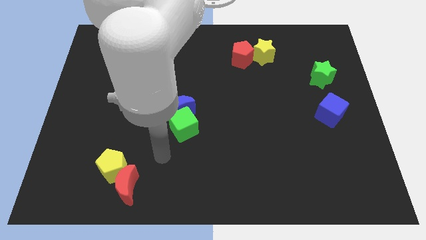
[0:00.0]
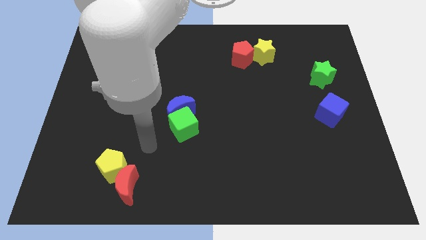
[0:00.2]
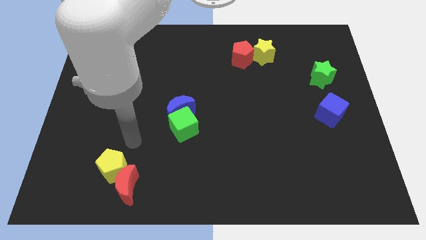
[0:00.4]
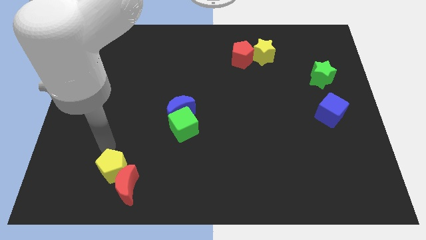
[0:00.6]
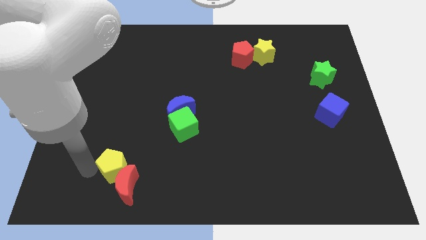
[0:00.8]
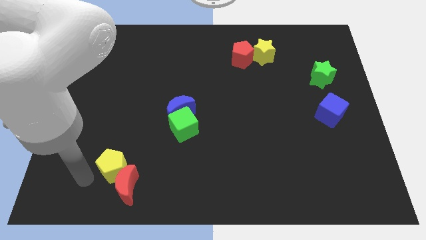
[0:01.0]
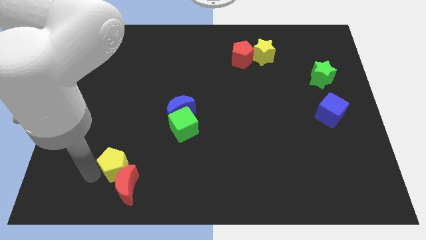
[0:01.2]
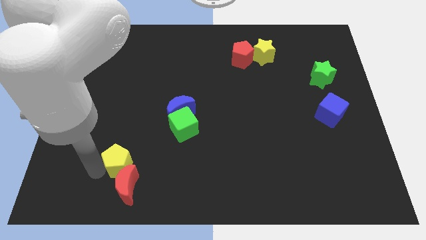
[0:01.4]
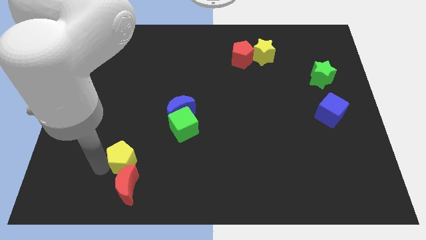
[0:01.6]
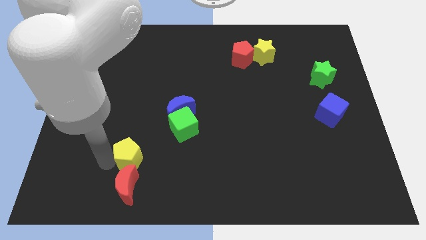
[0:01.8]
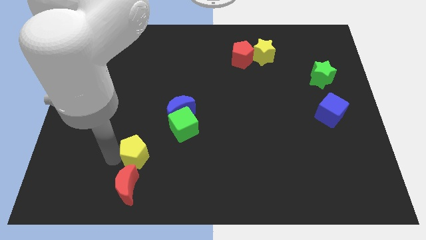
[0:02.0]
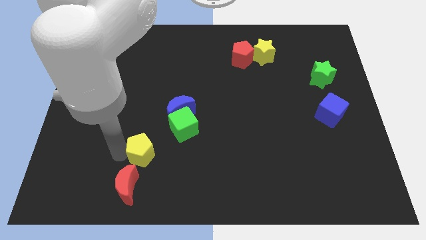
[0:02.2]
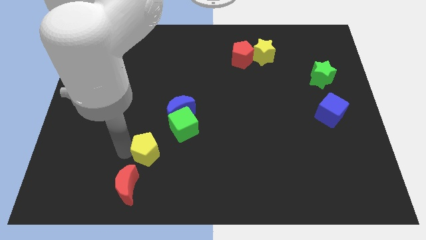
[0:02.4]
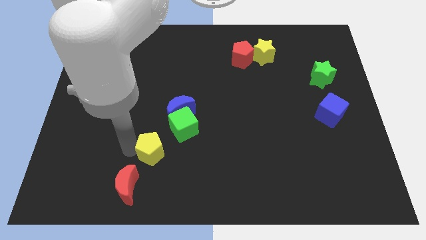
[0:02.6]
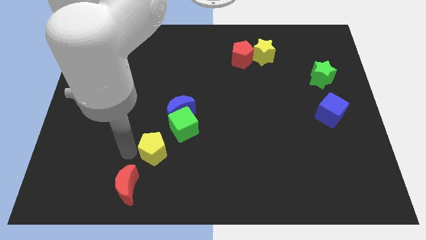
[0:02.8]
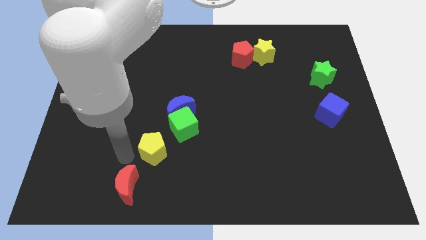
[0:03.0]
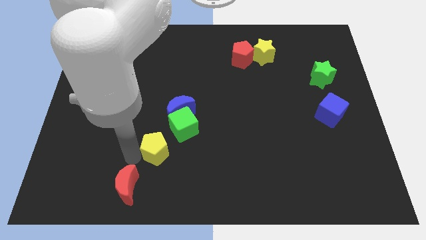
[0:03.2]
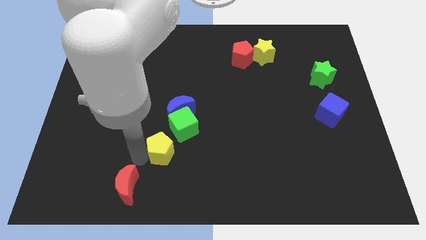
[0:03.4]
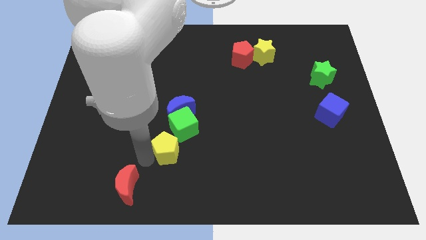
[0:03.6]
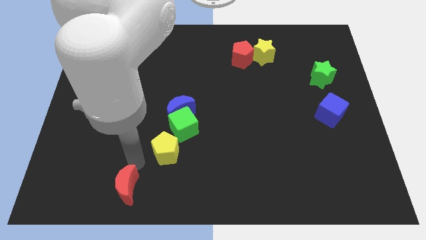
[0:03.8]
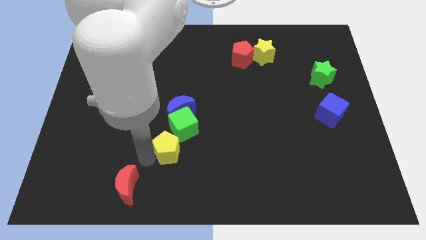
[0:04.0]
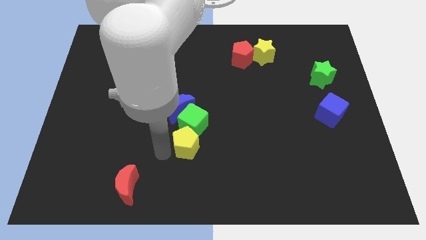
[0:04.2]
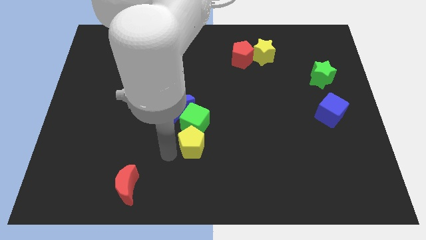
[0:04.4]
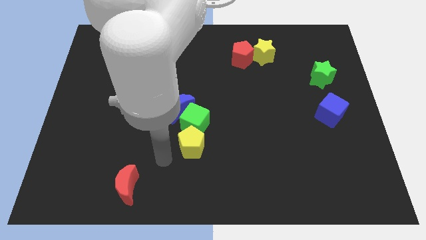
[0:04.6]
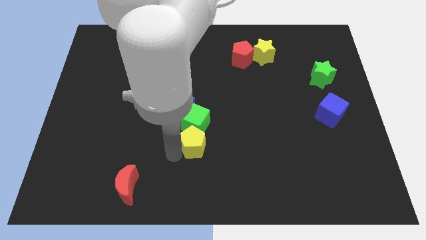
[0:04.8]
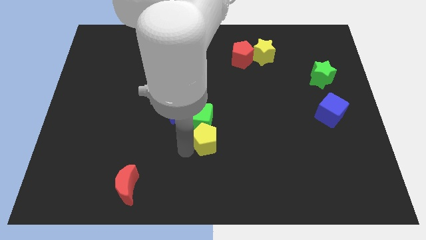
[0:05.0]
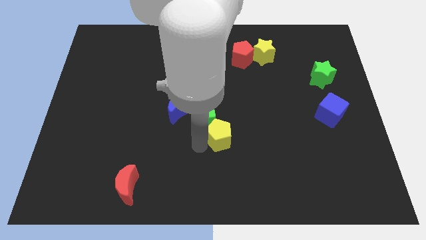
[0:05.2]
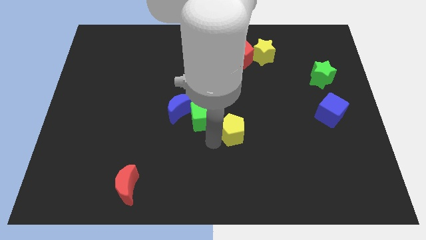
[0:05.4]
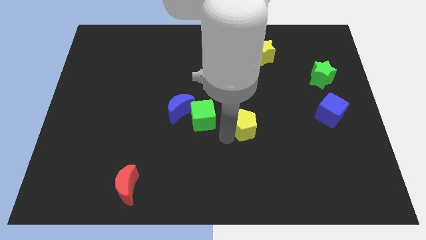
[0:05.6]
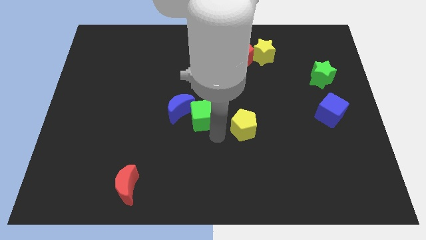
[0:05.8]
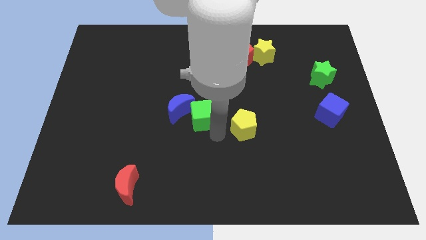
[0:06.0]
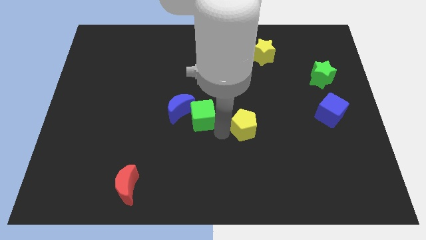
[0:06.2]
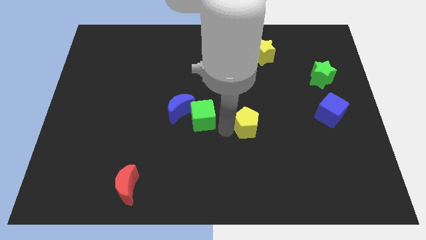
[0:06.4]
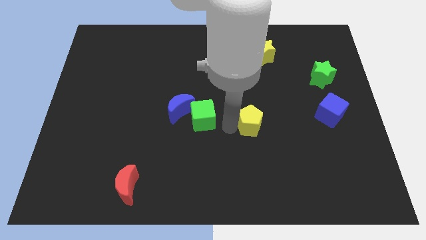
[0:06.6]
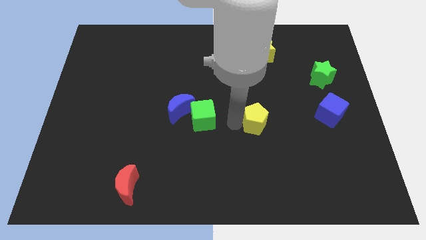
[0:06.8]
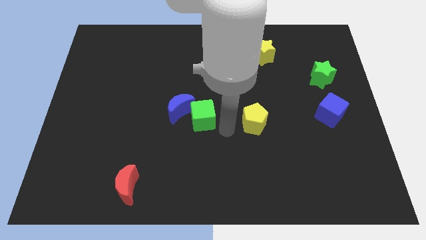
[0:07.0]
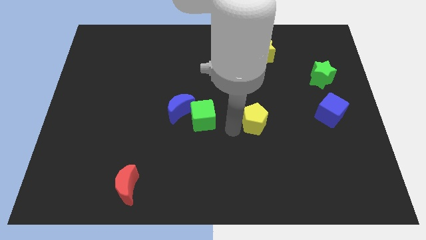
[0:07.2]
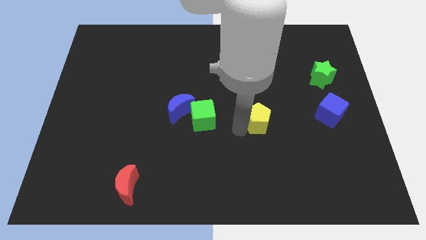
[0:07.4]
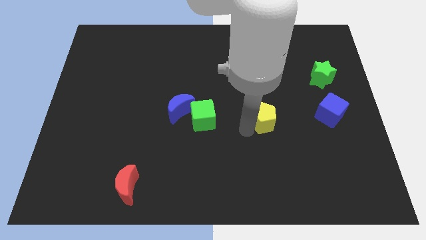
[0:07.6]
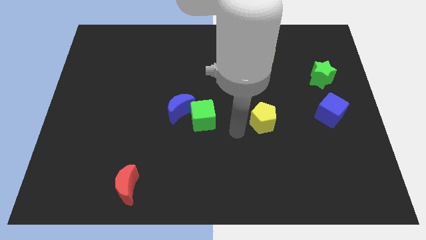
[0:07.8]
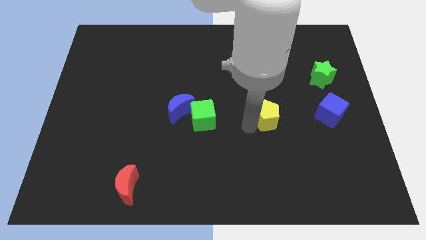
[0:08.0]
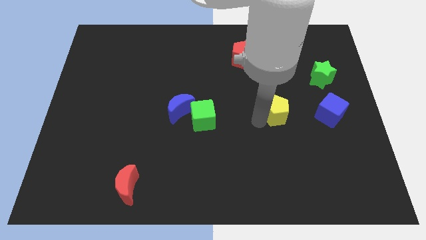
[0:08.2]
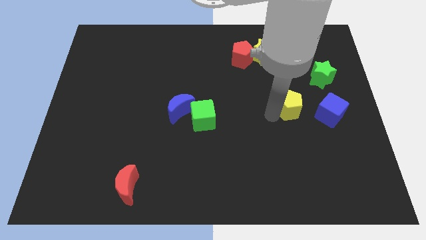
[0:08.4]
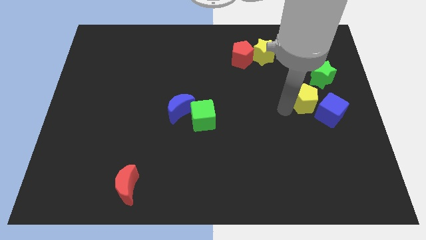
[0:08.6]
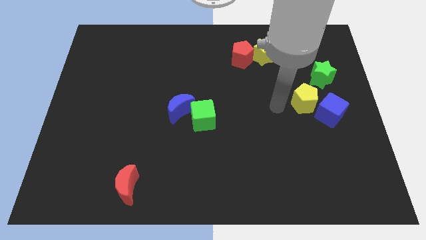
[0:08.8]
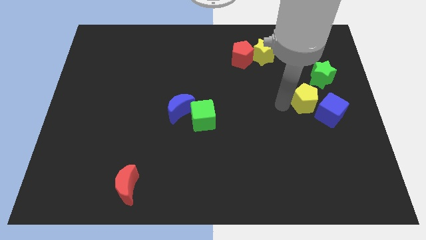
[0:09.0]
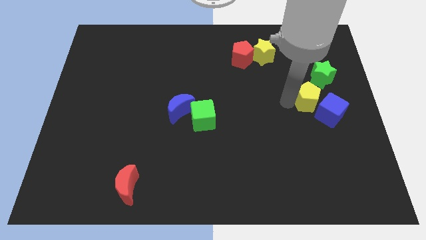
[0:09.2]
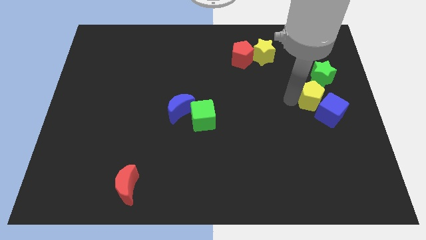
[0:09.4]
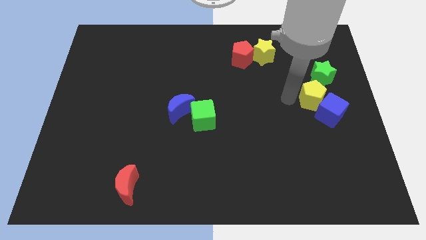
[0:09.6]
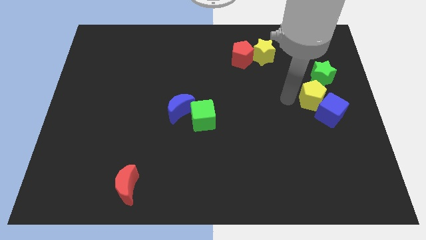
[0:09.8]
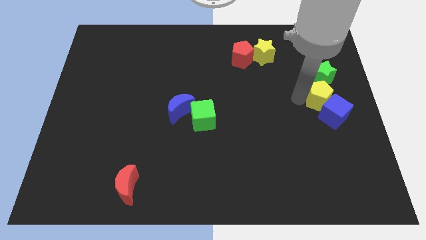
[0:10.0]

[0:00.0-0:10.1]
slide the yellow pentagon to the center right
